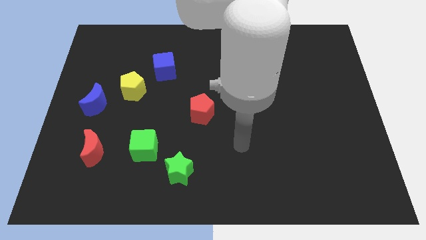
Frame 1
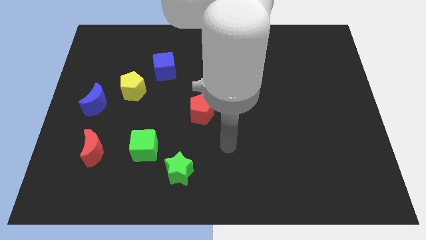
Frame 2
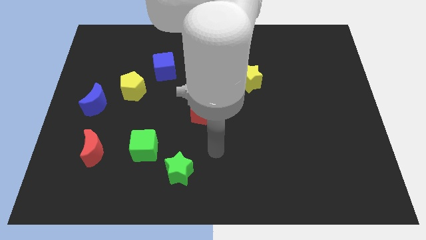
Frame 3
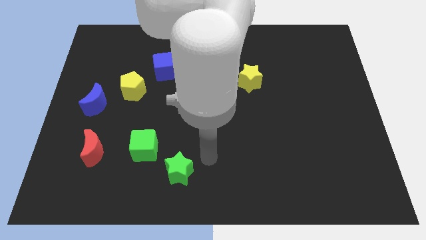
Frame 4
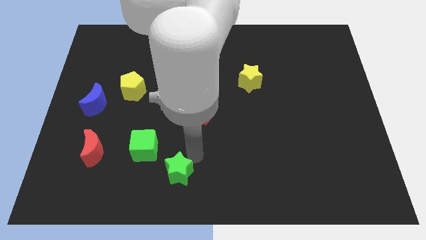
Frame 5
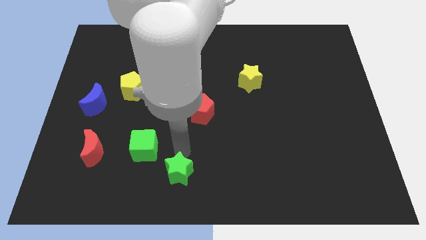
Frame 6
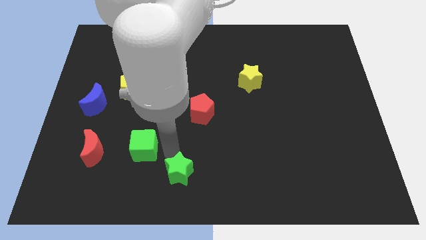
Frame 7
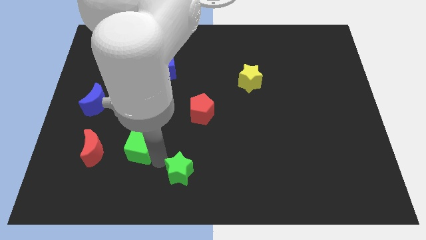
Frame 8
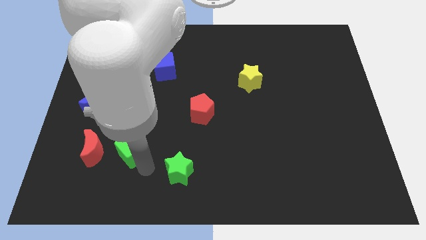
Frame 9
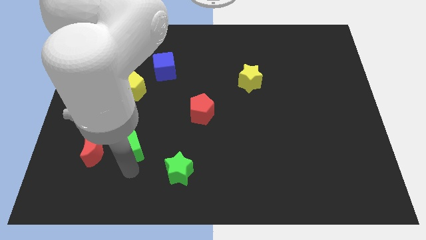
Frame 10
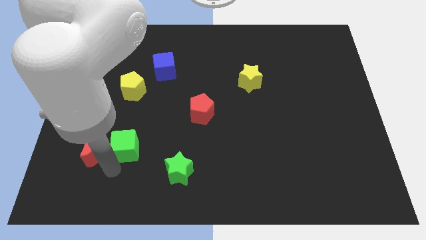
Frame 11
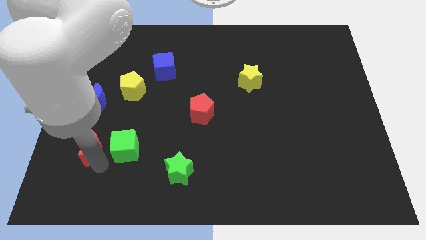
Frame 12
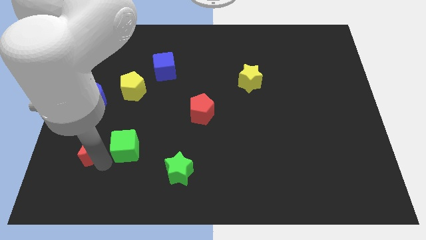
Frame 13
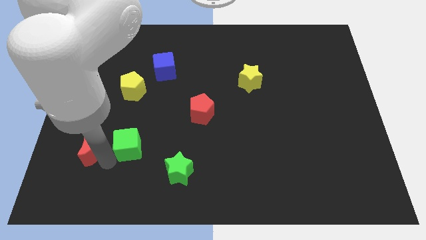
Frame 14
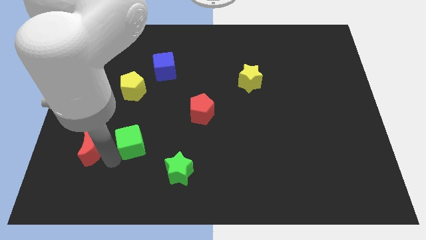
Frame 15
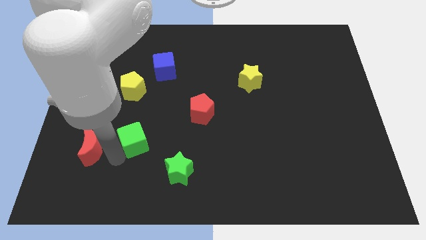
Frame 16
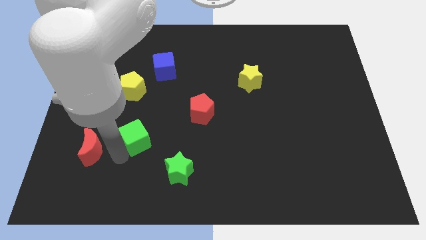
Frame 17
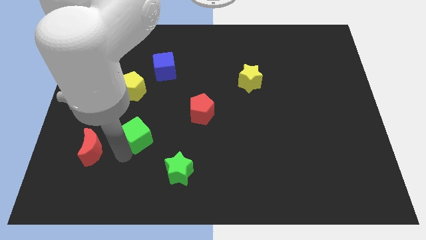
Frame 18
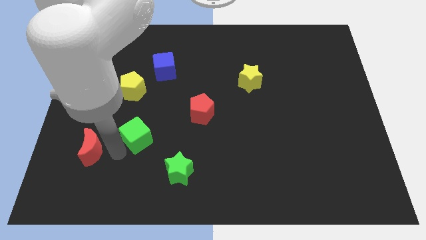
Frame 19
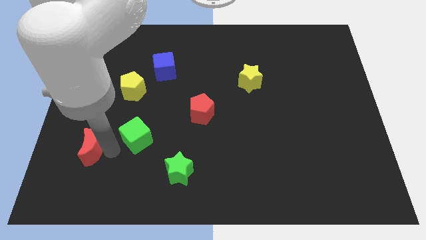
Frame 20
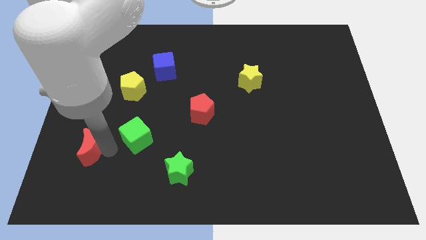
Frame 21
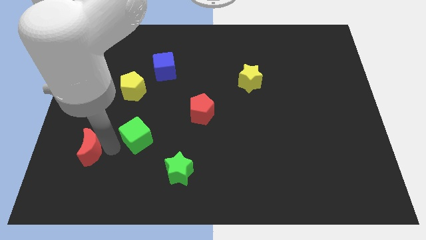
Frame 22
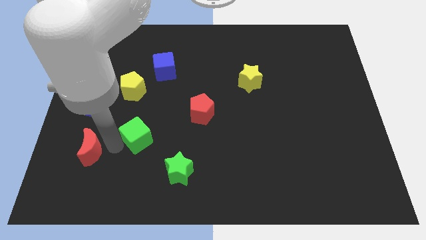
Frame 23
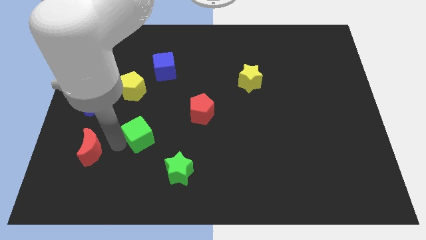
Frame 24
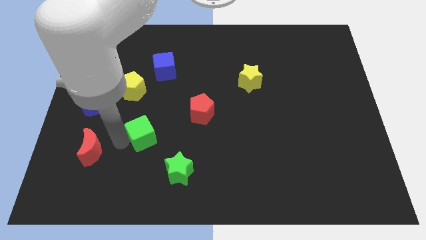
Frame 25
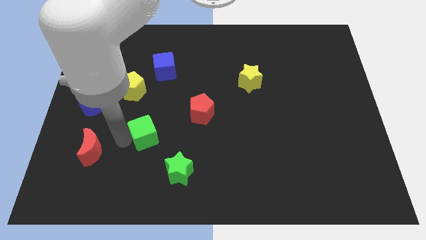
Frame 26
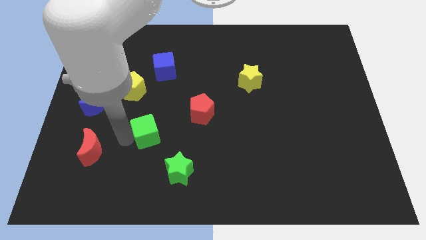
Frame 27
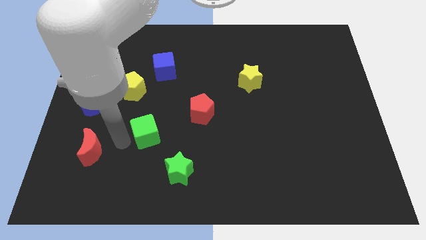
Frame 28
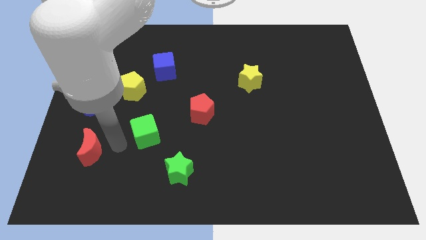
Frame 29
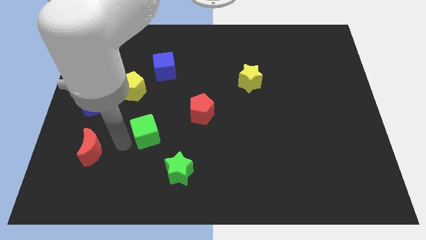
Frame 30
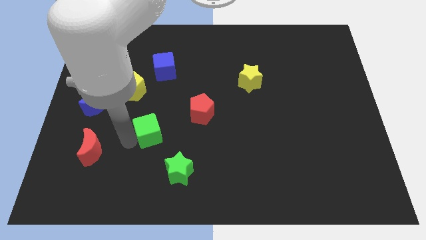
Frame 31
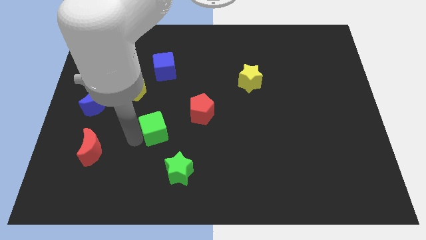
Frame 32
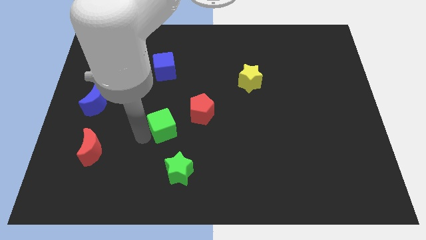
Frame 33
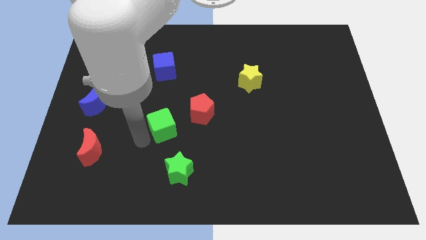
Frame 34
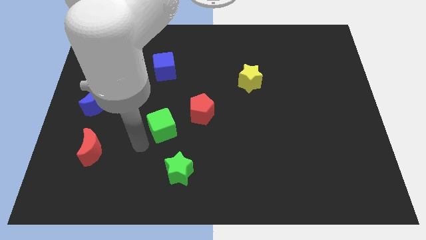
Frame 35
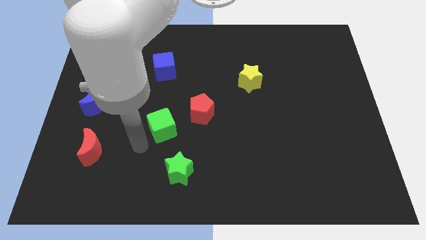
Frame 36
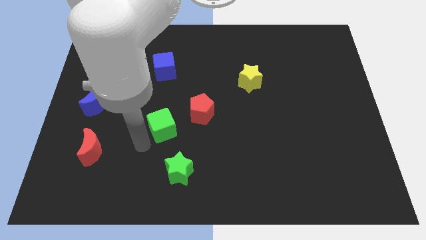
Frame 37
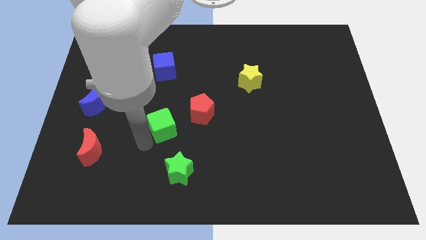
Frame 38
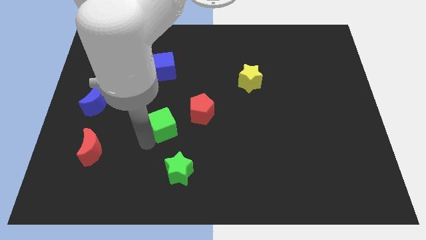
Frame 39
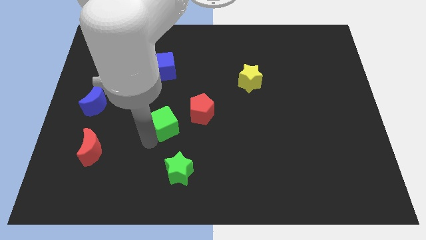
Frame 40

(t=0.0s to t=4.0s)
slightly move the green cube up and right

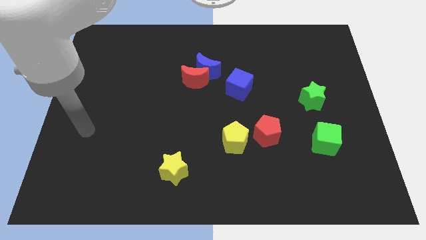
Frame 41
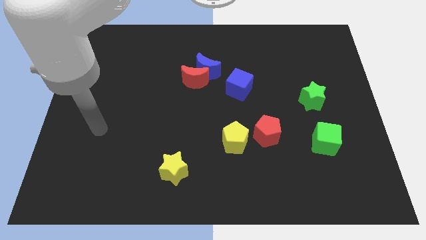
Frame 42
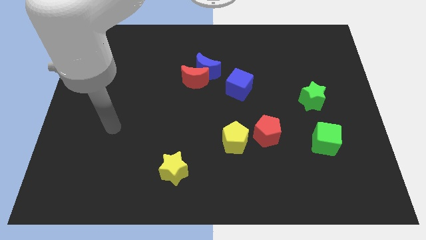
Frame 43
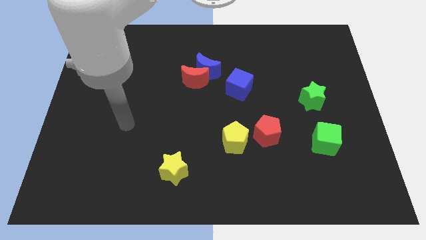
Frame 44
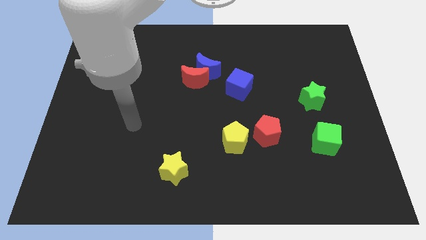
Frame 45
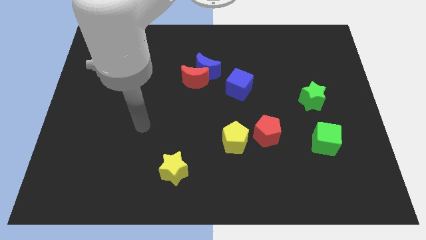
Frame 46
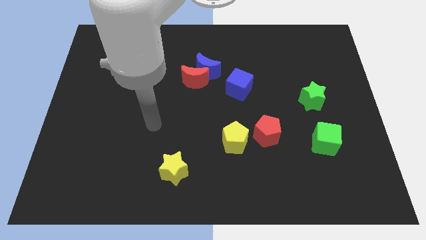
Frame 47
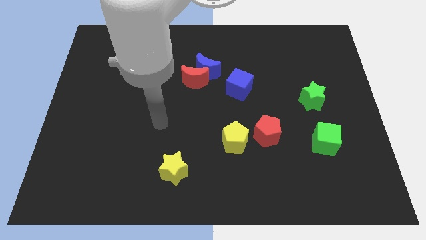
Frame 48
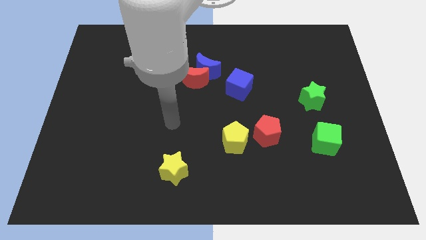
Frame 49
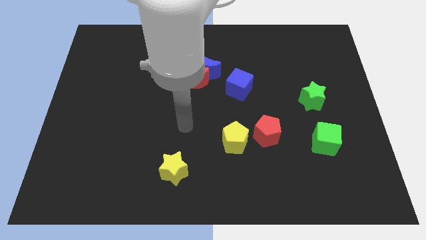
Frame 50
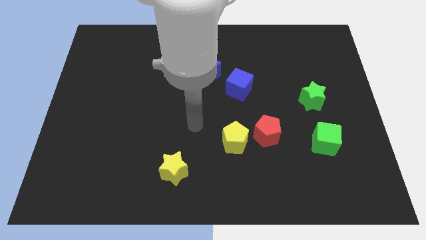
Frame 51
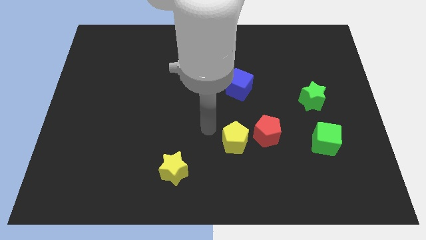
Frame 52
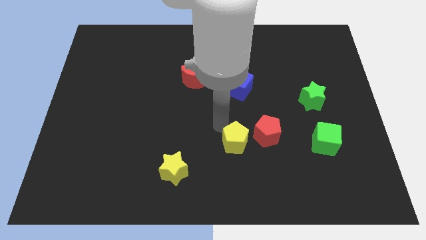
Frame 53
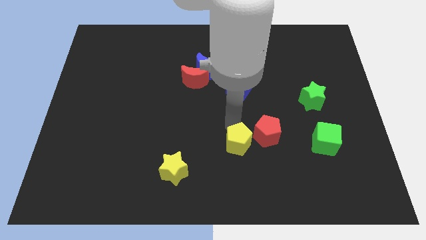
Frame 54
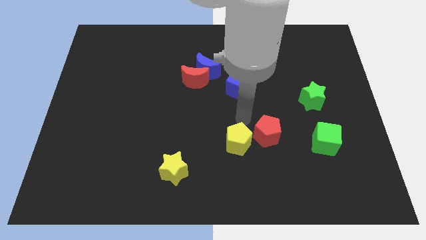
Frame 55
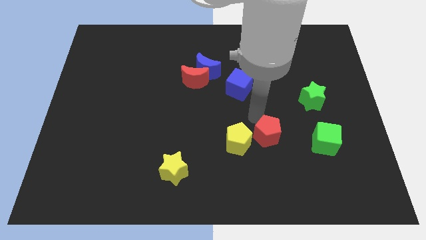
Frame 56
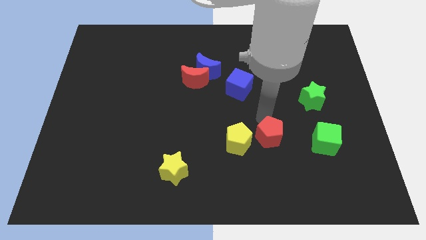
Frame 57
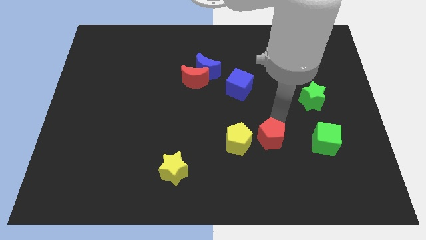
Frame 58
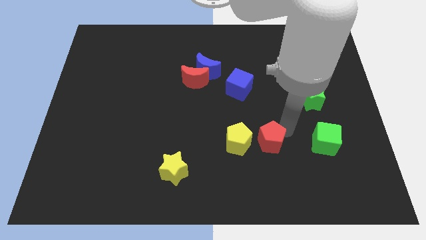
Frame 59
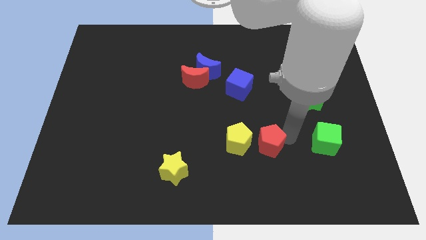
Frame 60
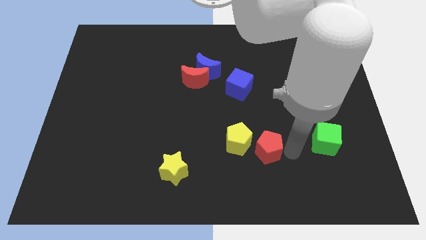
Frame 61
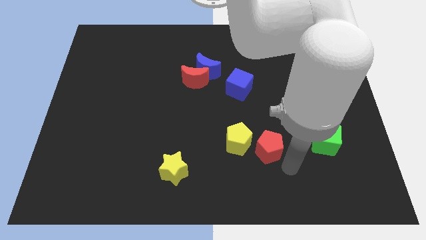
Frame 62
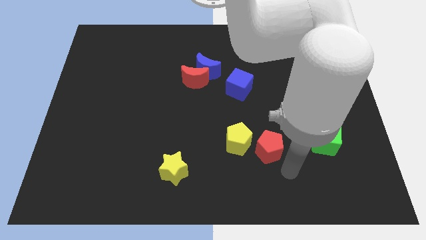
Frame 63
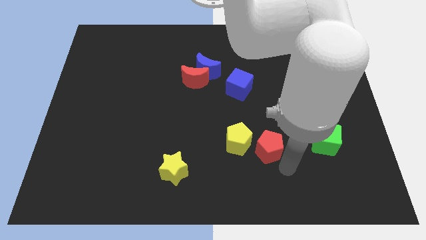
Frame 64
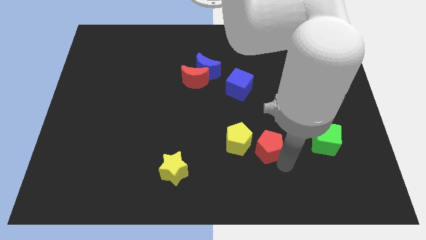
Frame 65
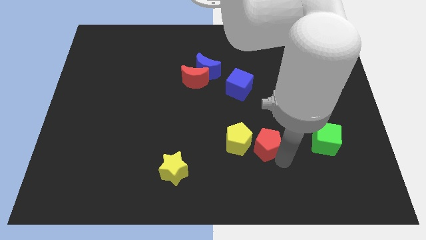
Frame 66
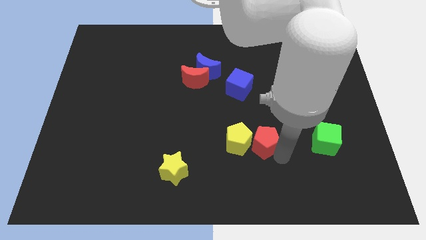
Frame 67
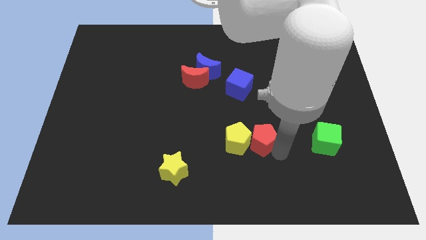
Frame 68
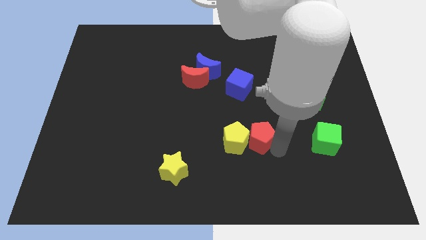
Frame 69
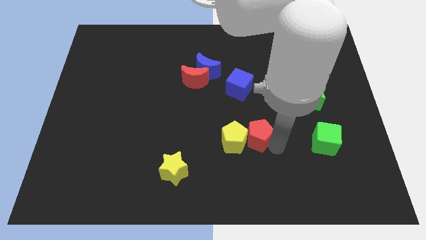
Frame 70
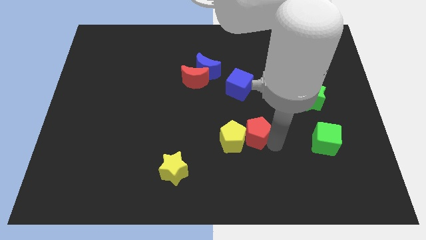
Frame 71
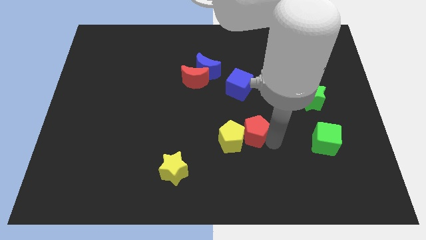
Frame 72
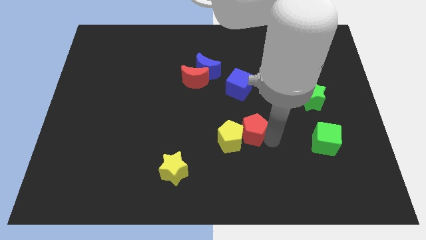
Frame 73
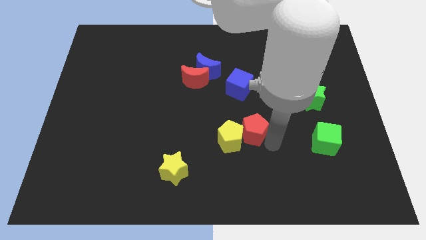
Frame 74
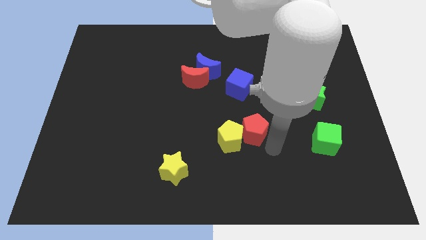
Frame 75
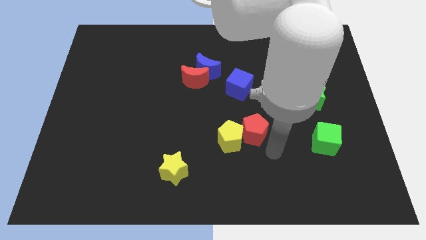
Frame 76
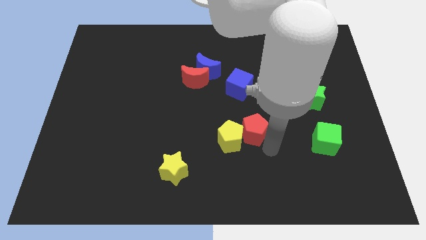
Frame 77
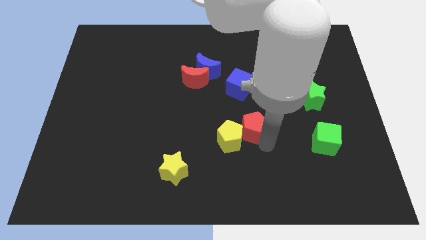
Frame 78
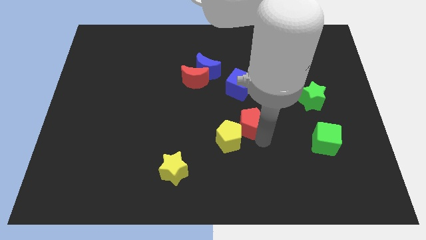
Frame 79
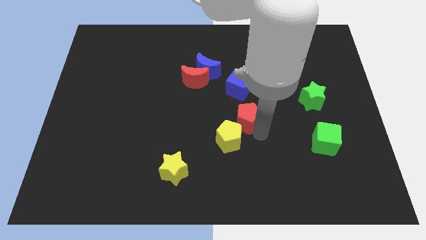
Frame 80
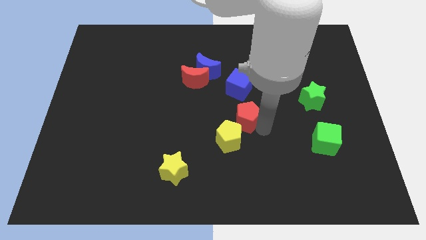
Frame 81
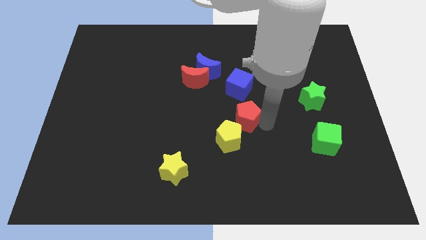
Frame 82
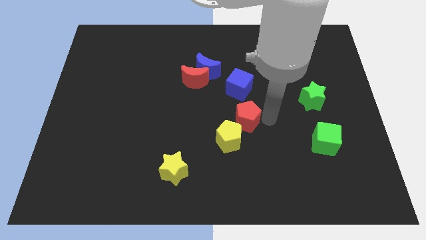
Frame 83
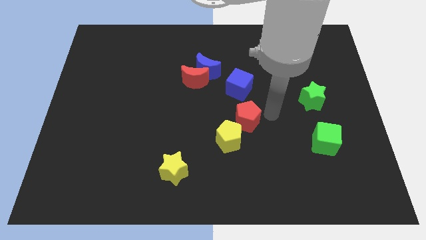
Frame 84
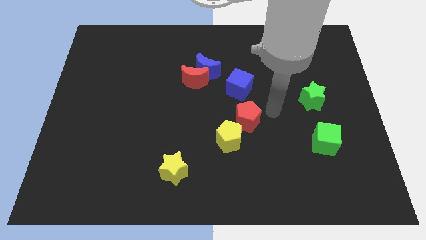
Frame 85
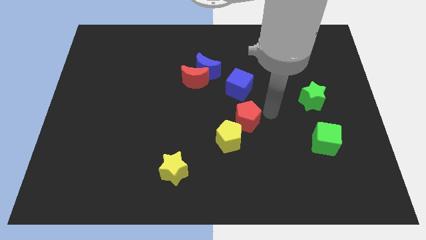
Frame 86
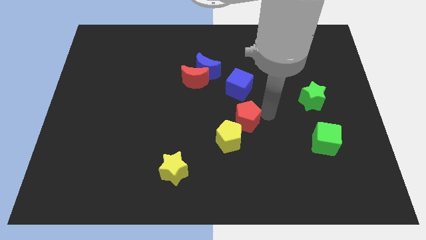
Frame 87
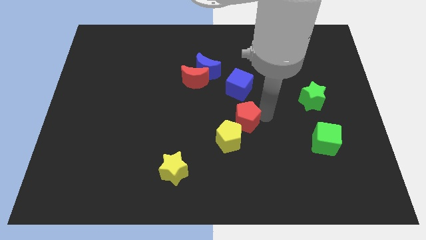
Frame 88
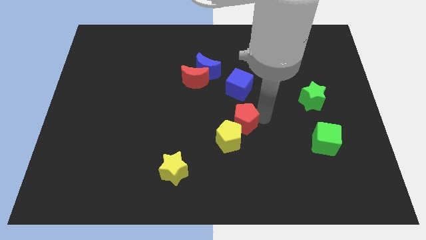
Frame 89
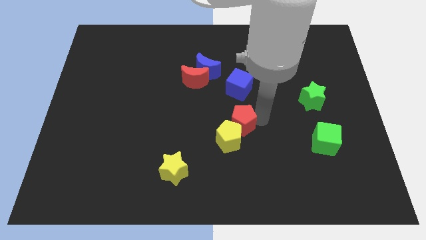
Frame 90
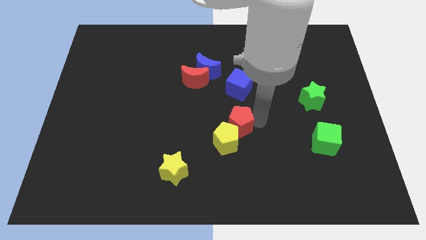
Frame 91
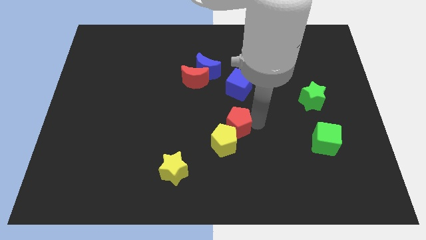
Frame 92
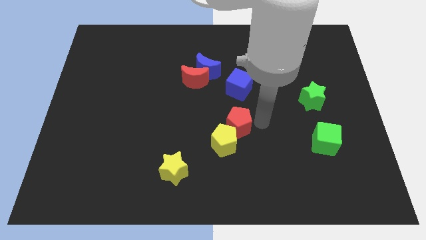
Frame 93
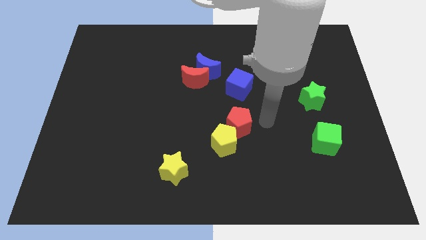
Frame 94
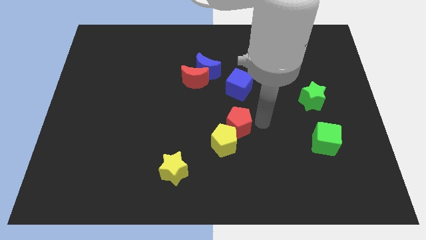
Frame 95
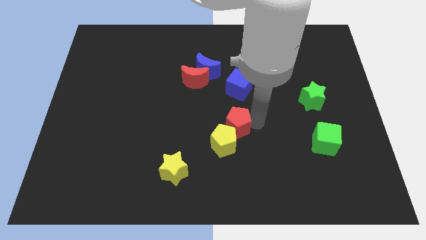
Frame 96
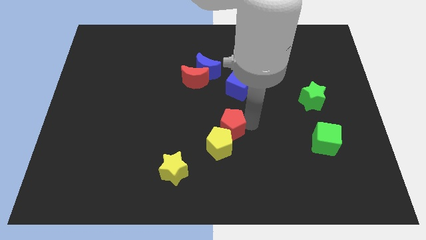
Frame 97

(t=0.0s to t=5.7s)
push the red pentagon to the left somewhat
